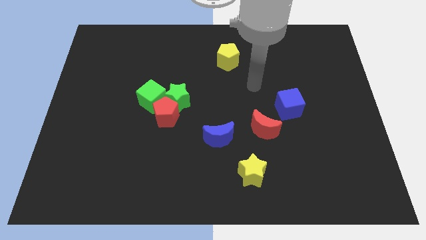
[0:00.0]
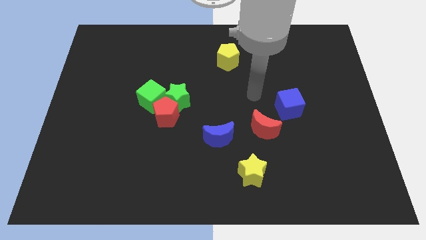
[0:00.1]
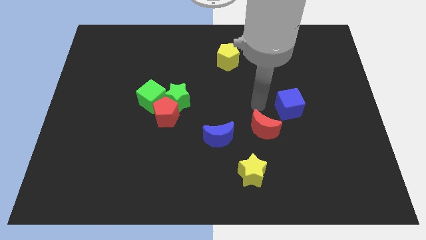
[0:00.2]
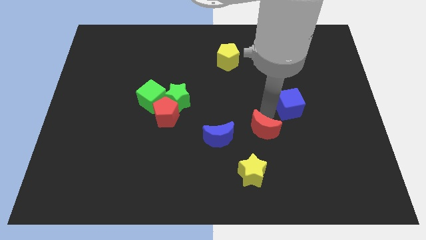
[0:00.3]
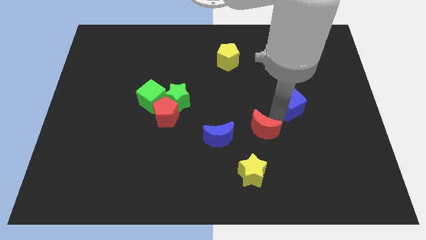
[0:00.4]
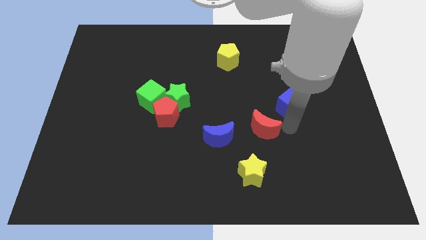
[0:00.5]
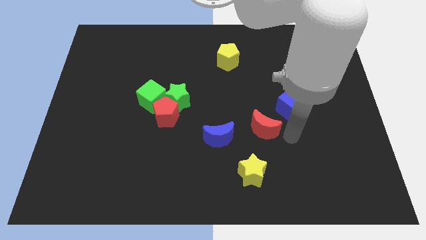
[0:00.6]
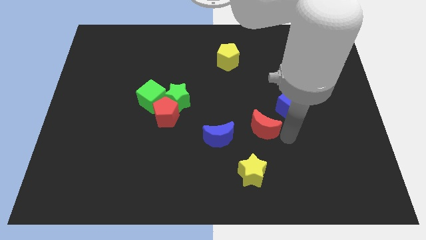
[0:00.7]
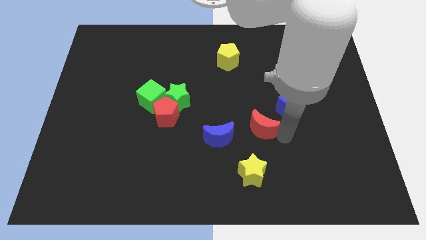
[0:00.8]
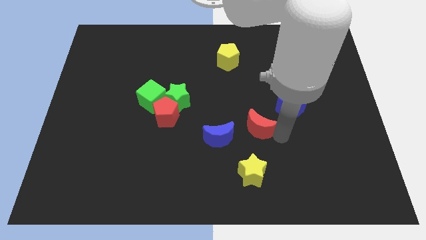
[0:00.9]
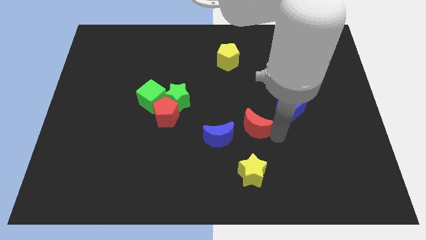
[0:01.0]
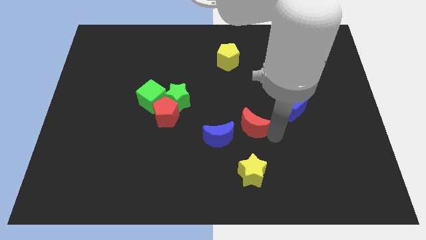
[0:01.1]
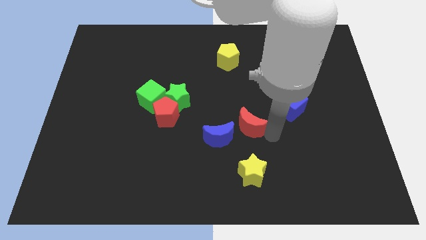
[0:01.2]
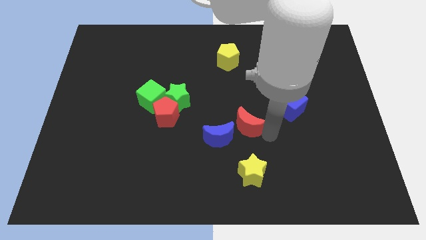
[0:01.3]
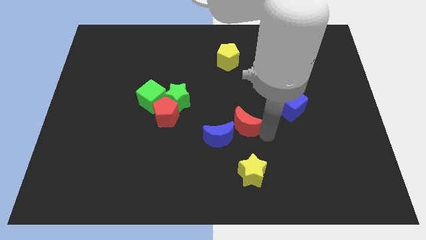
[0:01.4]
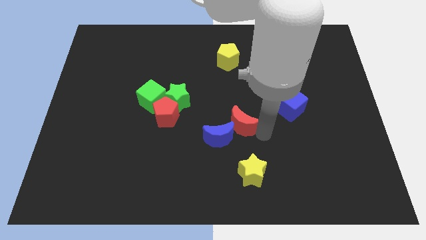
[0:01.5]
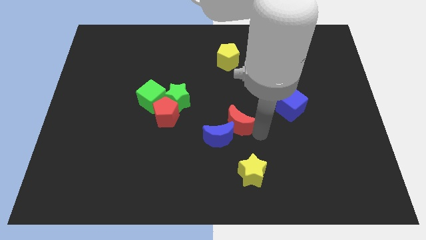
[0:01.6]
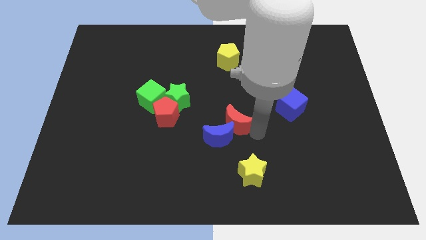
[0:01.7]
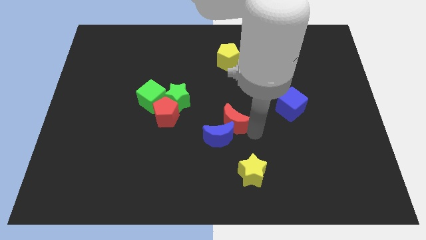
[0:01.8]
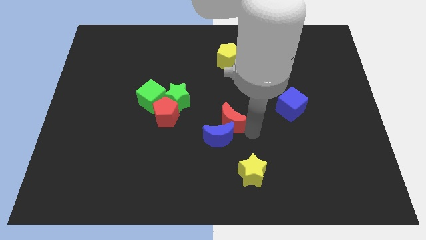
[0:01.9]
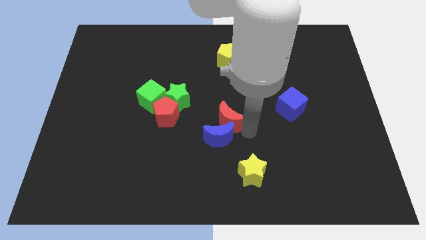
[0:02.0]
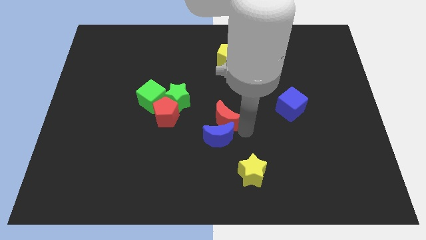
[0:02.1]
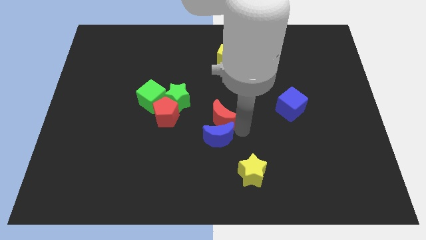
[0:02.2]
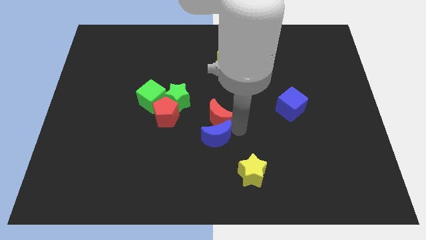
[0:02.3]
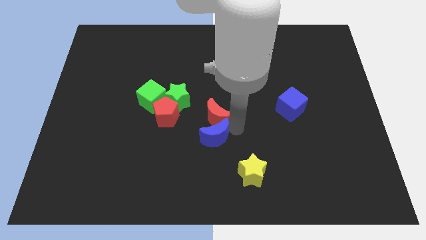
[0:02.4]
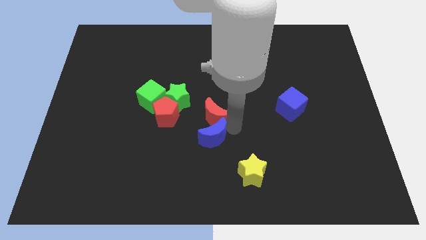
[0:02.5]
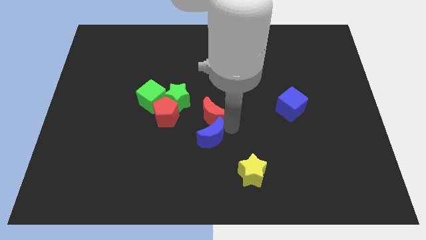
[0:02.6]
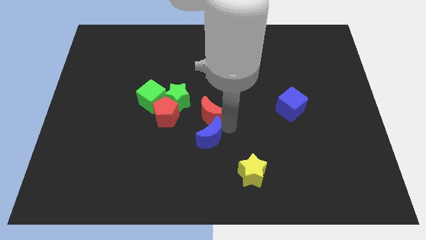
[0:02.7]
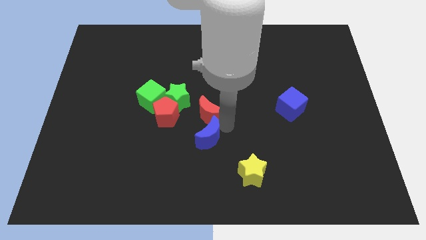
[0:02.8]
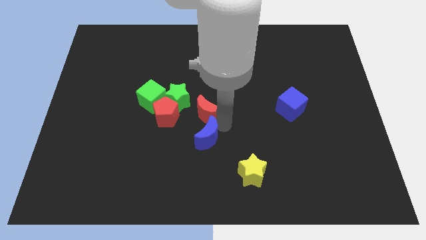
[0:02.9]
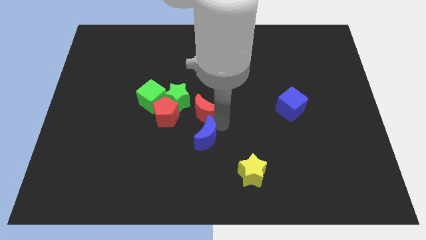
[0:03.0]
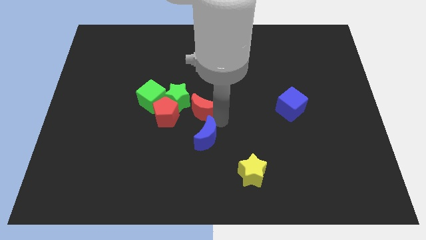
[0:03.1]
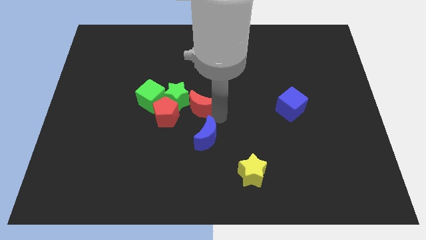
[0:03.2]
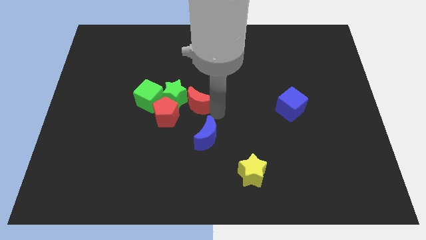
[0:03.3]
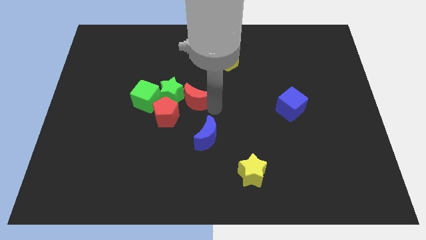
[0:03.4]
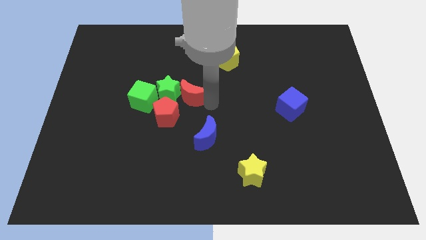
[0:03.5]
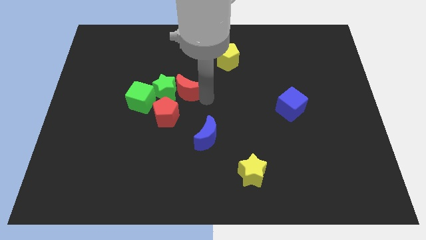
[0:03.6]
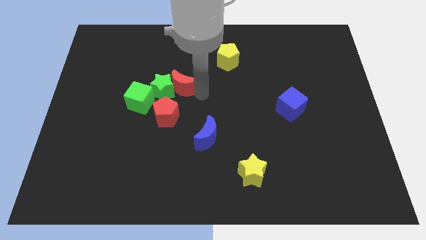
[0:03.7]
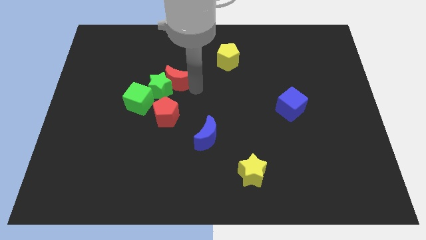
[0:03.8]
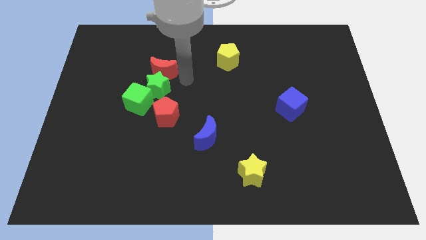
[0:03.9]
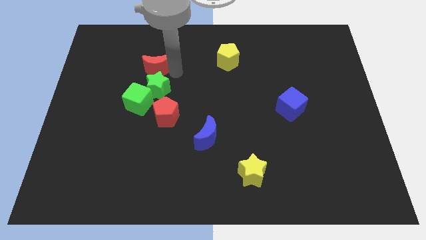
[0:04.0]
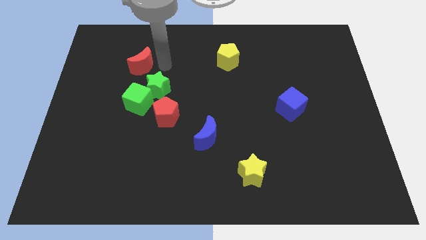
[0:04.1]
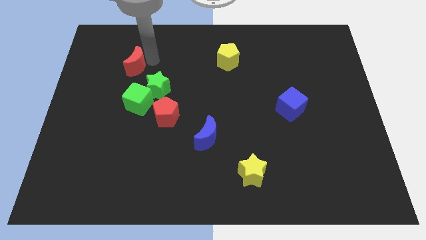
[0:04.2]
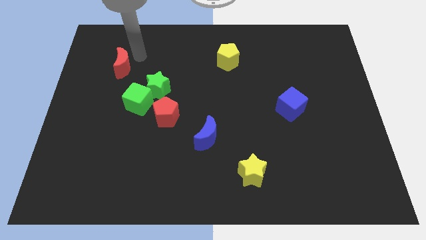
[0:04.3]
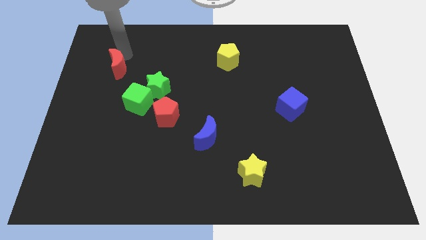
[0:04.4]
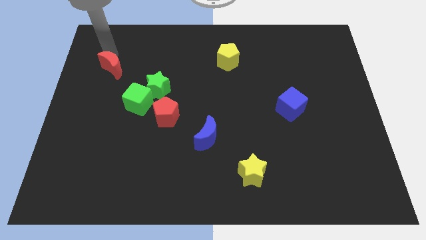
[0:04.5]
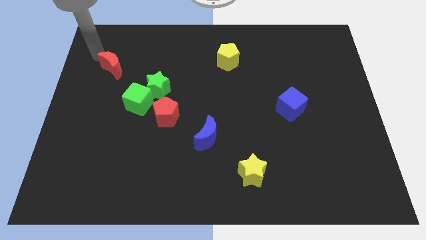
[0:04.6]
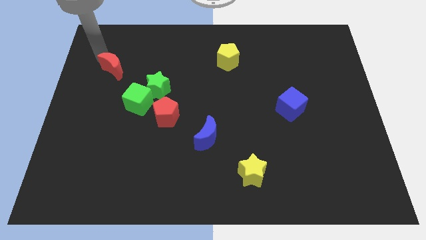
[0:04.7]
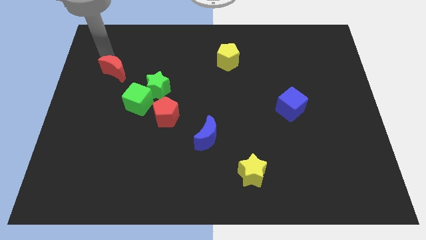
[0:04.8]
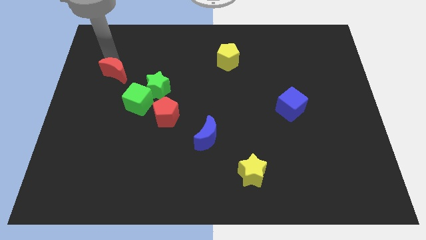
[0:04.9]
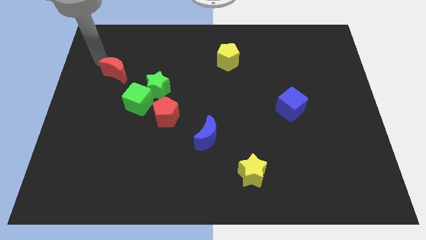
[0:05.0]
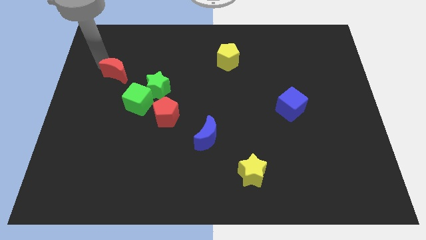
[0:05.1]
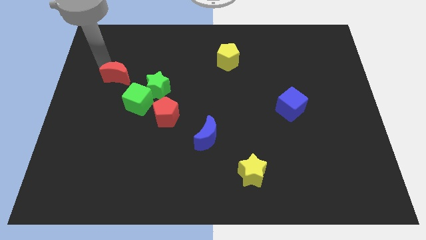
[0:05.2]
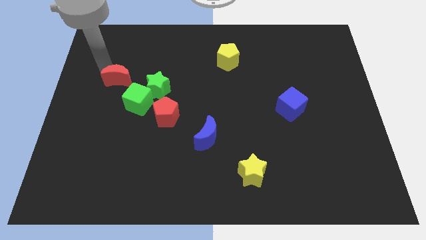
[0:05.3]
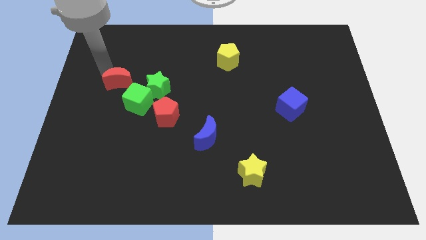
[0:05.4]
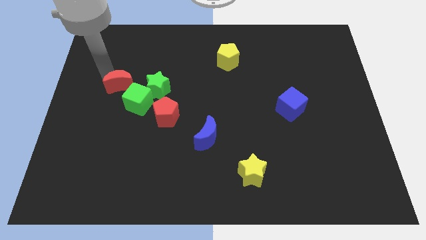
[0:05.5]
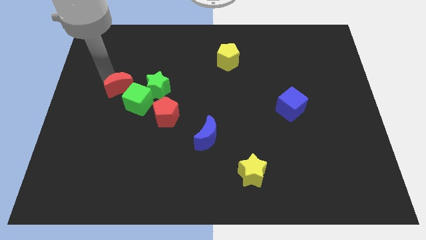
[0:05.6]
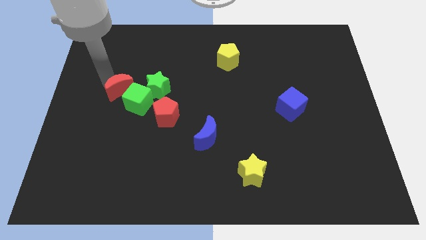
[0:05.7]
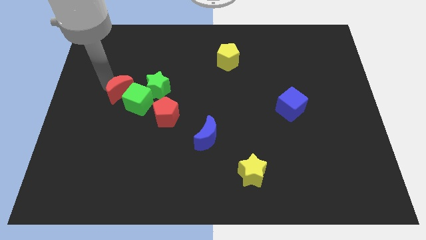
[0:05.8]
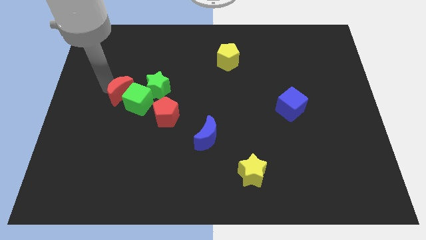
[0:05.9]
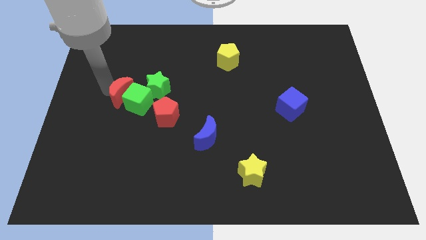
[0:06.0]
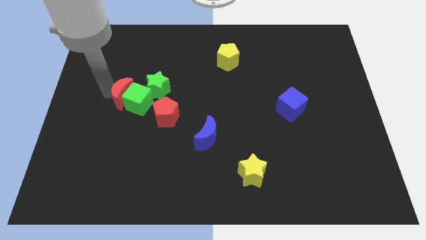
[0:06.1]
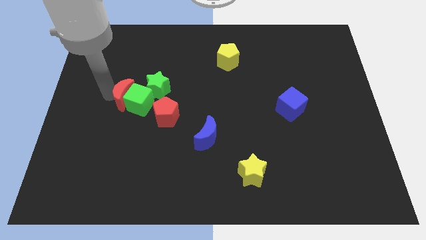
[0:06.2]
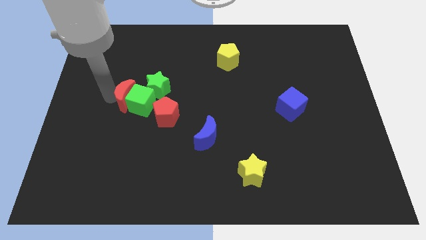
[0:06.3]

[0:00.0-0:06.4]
slide the red moon to the left side of the red pentagon
